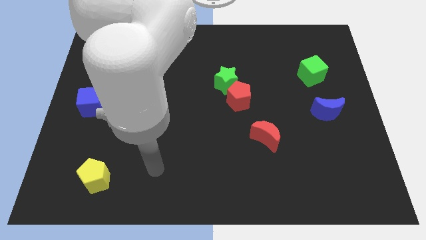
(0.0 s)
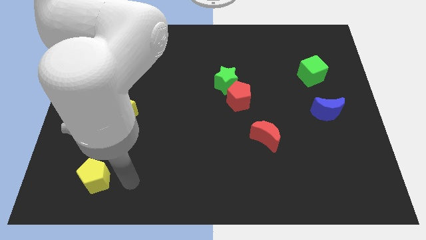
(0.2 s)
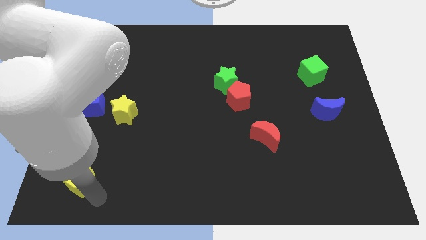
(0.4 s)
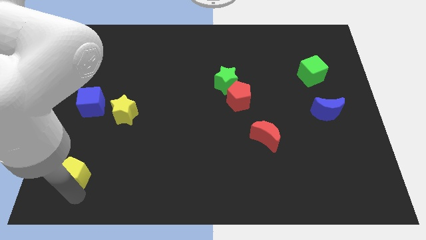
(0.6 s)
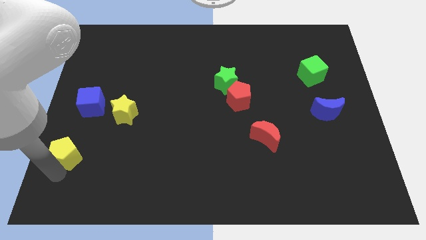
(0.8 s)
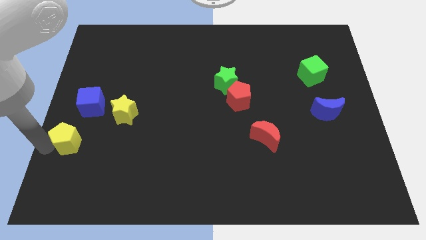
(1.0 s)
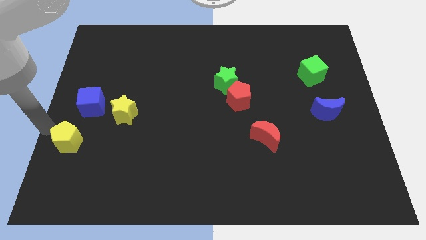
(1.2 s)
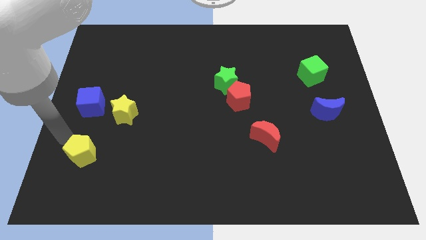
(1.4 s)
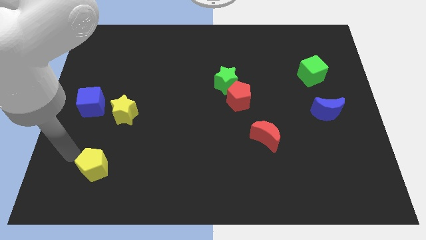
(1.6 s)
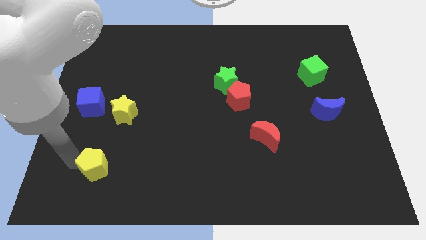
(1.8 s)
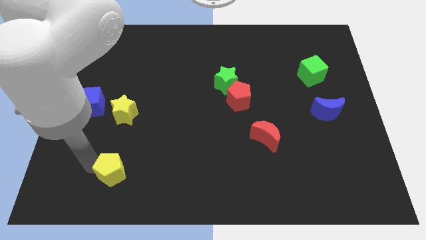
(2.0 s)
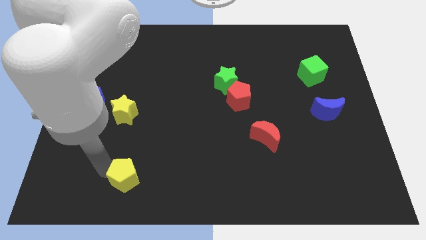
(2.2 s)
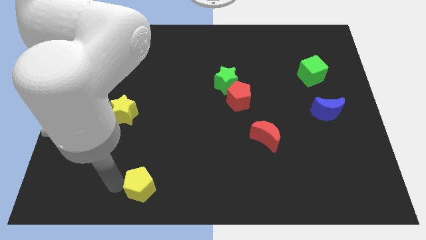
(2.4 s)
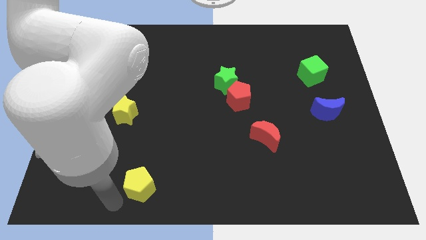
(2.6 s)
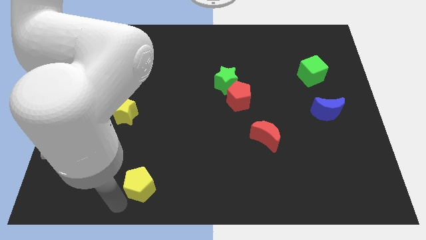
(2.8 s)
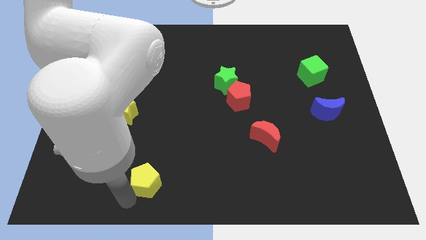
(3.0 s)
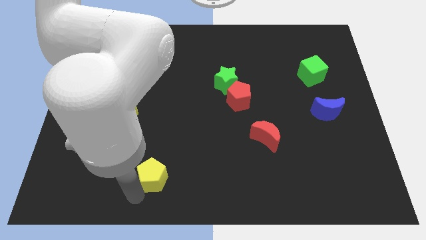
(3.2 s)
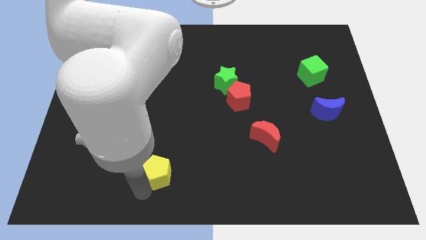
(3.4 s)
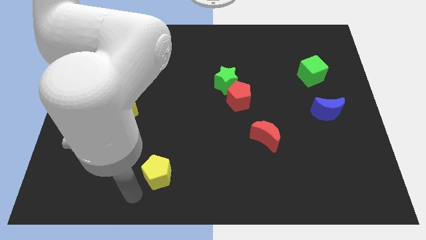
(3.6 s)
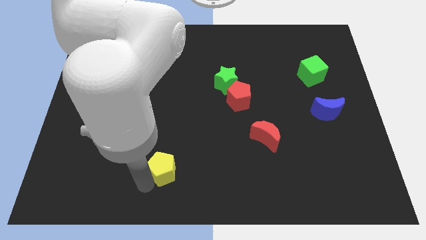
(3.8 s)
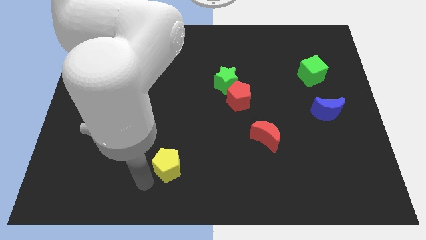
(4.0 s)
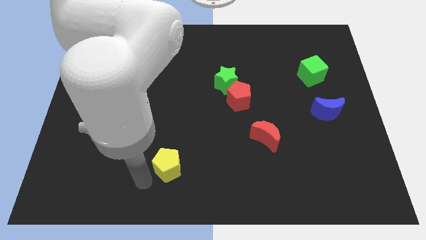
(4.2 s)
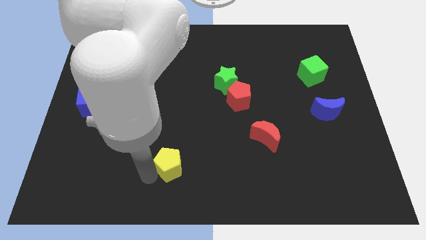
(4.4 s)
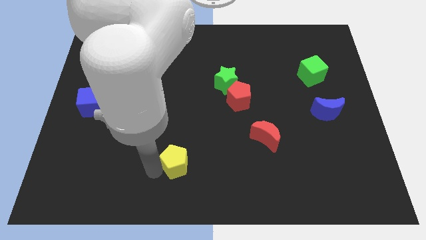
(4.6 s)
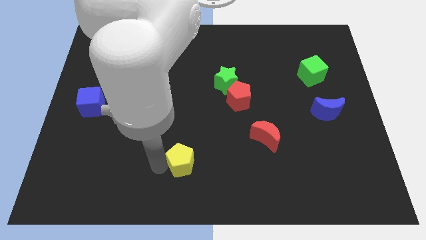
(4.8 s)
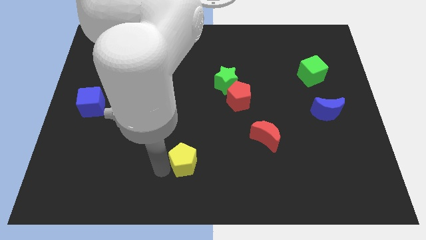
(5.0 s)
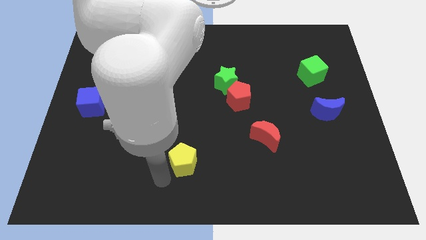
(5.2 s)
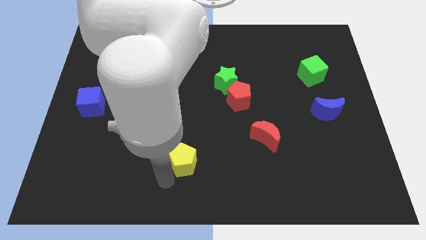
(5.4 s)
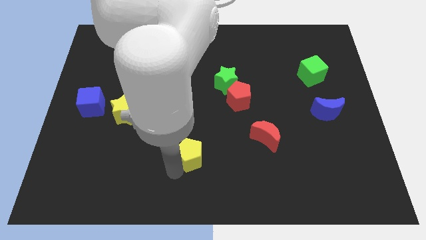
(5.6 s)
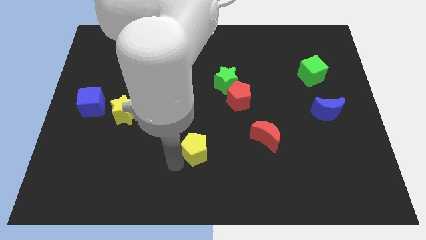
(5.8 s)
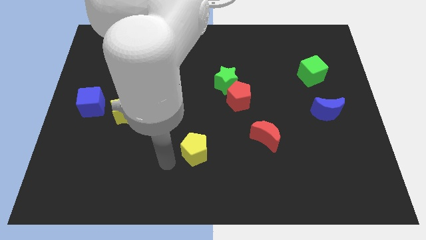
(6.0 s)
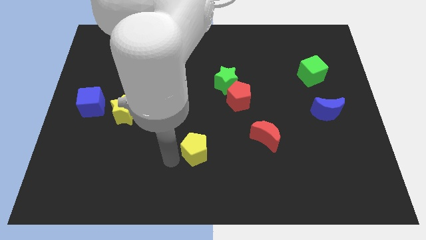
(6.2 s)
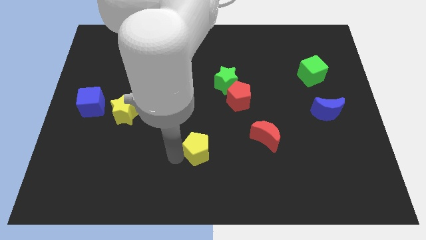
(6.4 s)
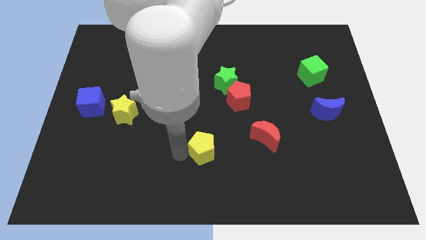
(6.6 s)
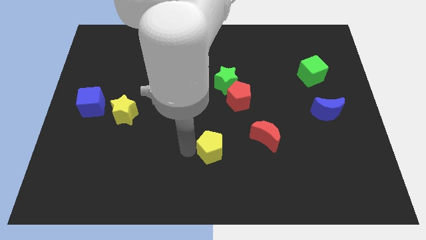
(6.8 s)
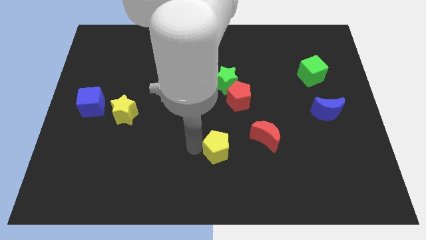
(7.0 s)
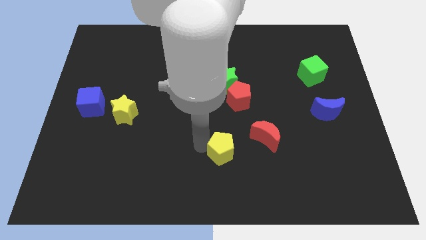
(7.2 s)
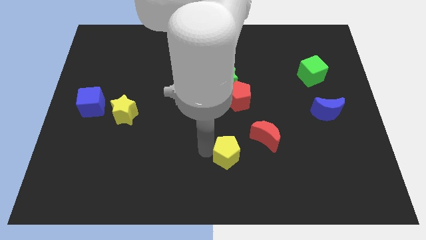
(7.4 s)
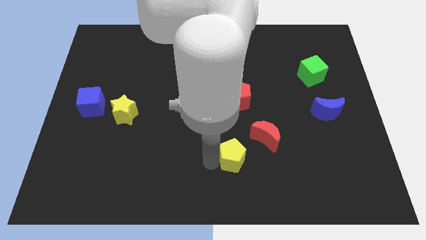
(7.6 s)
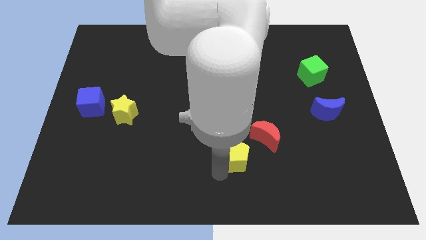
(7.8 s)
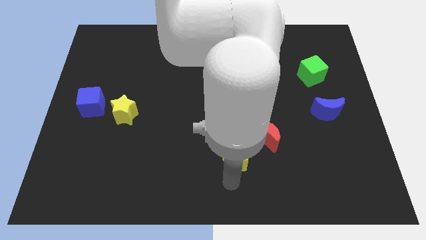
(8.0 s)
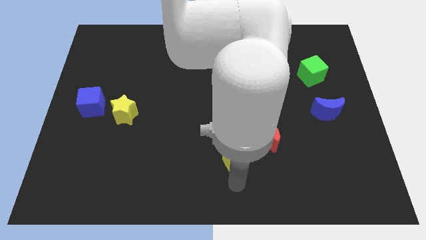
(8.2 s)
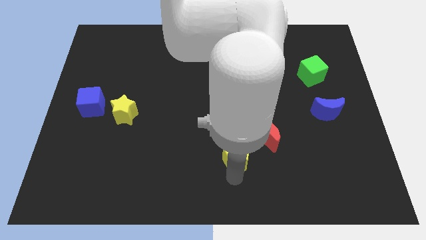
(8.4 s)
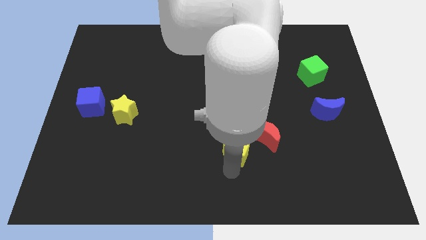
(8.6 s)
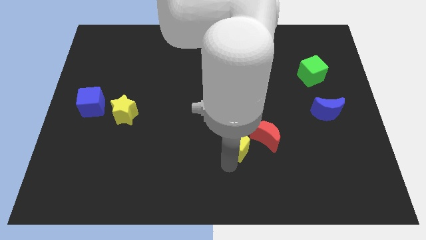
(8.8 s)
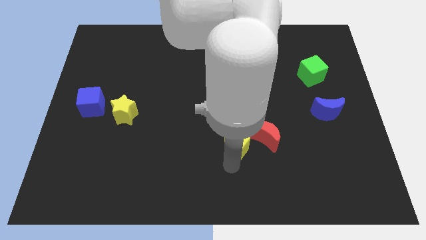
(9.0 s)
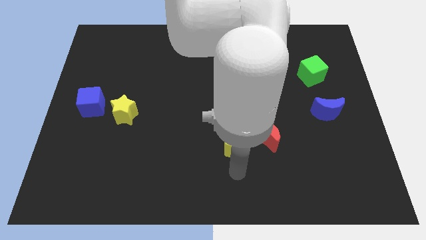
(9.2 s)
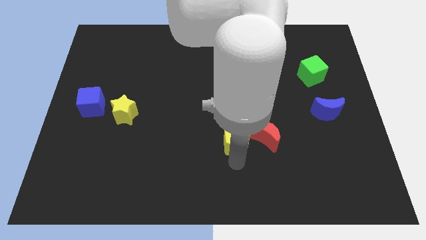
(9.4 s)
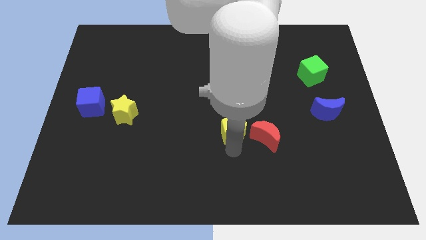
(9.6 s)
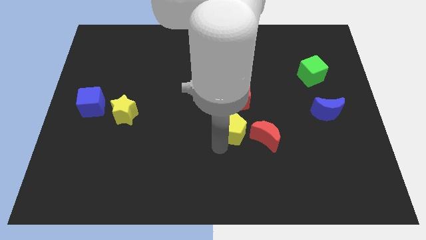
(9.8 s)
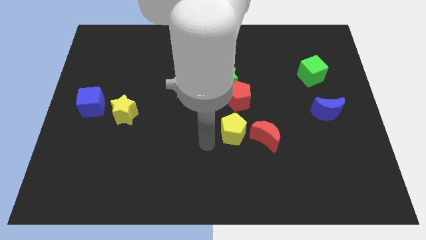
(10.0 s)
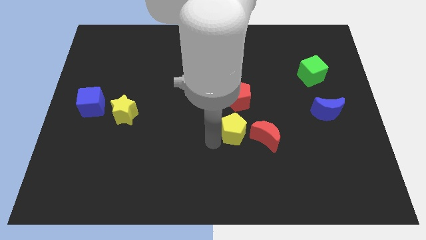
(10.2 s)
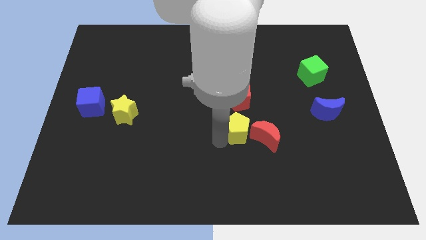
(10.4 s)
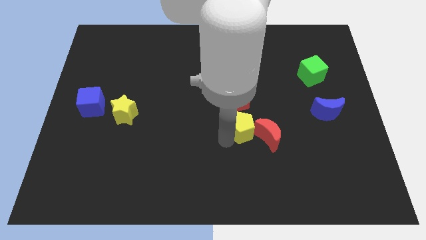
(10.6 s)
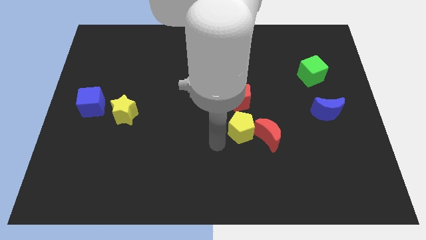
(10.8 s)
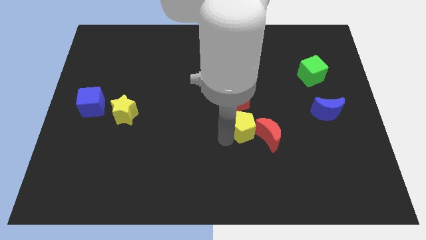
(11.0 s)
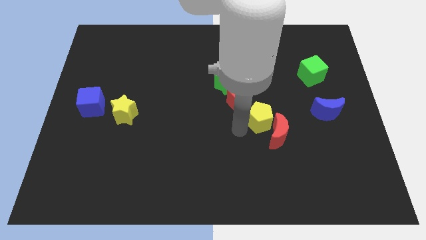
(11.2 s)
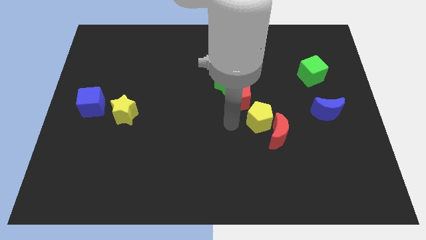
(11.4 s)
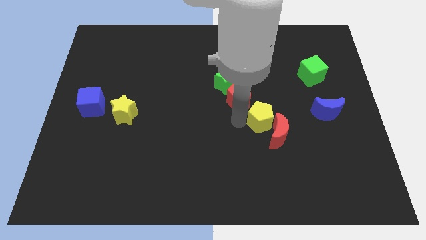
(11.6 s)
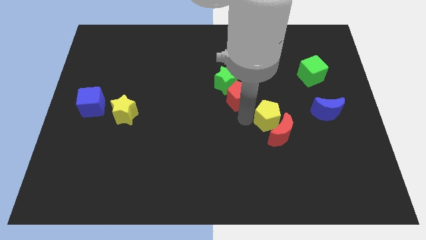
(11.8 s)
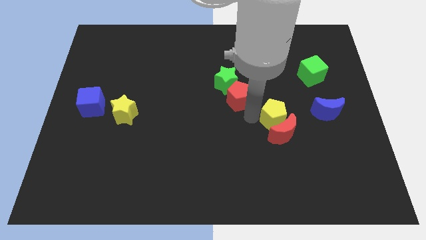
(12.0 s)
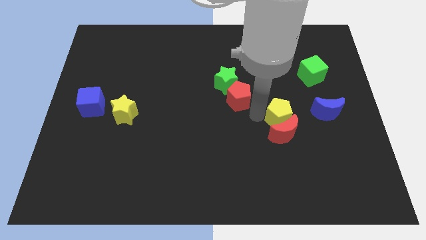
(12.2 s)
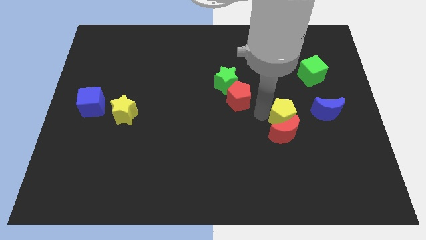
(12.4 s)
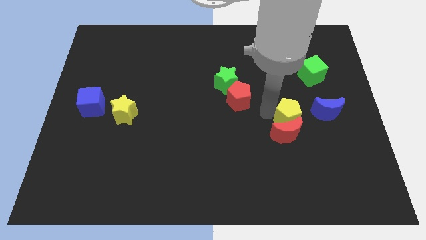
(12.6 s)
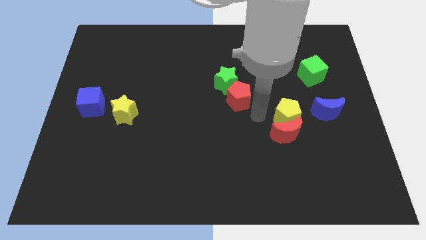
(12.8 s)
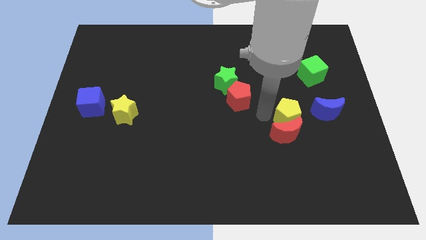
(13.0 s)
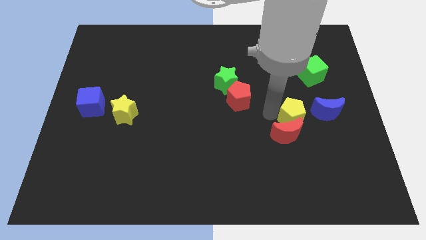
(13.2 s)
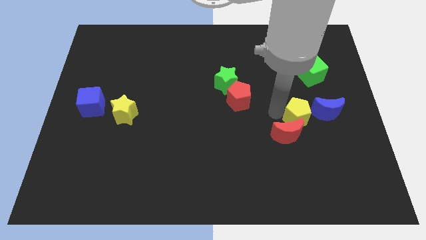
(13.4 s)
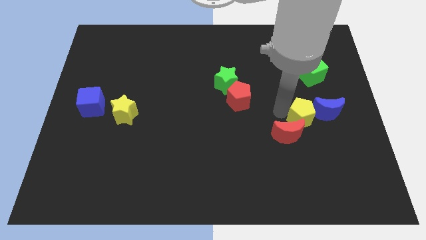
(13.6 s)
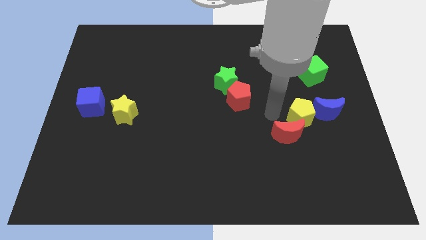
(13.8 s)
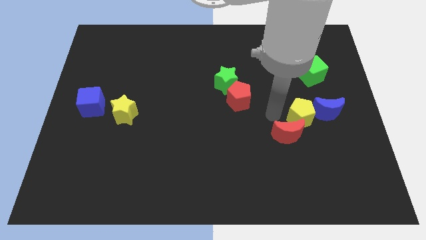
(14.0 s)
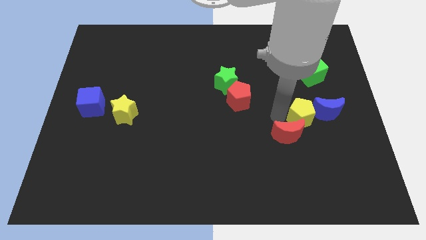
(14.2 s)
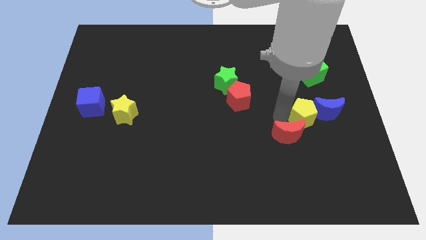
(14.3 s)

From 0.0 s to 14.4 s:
move the yellow pentagon to the blue moon
